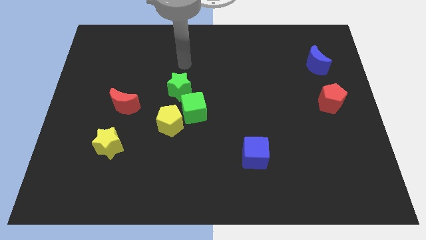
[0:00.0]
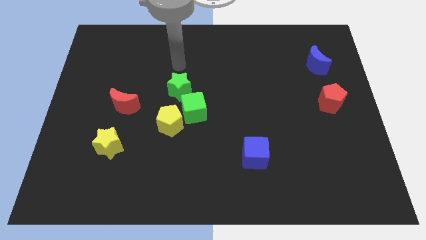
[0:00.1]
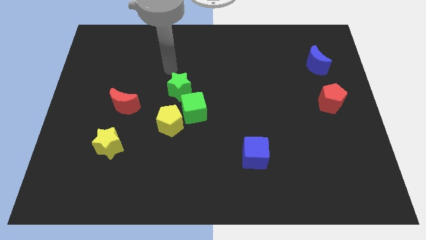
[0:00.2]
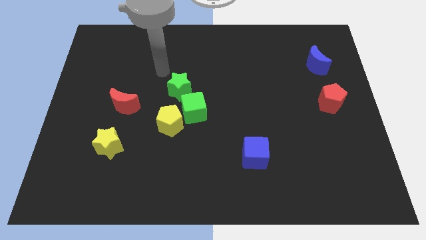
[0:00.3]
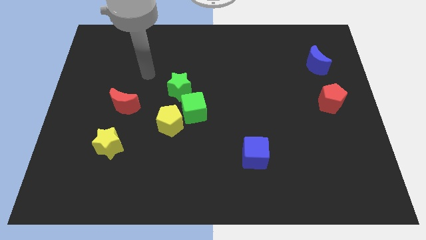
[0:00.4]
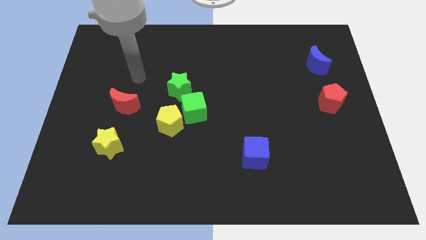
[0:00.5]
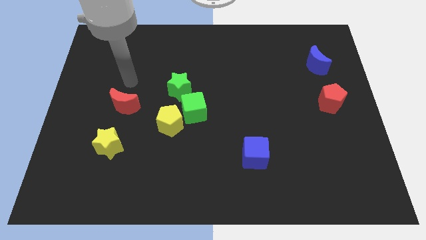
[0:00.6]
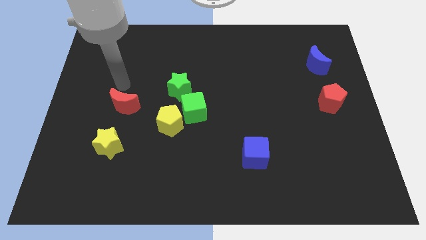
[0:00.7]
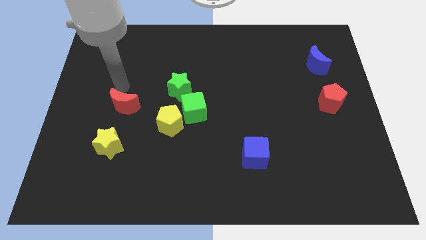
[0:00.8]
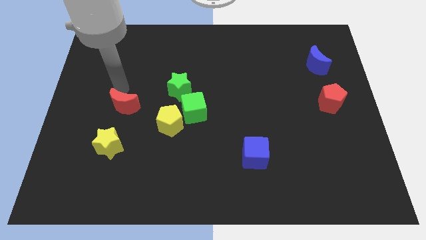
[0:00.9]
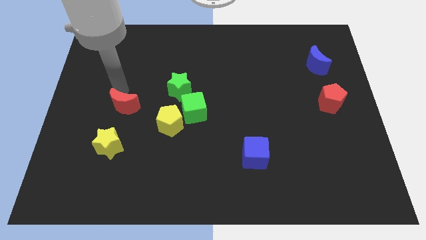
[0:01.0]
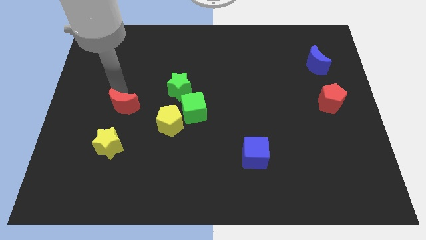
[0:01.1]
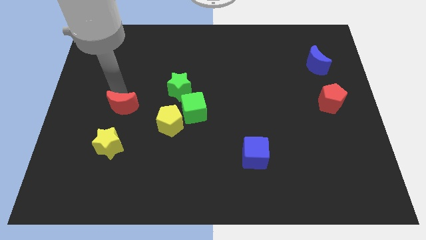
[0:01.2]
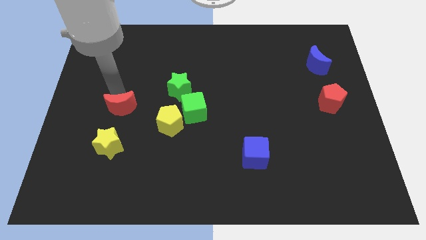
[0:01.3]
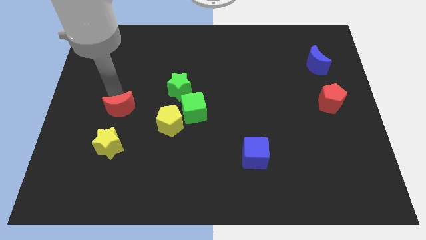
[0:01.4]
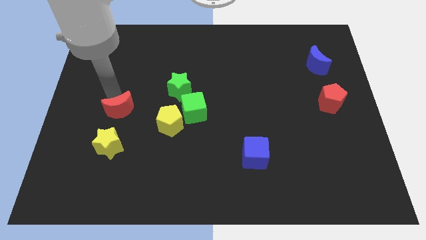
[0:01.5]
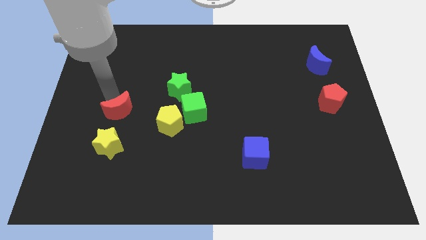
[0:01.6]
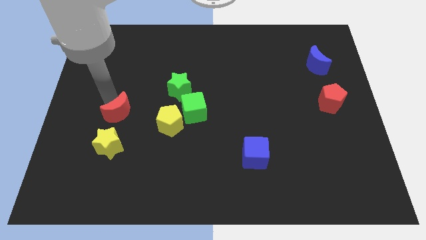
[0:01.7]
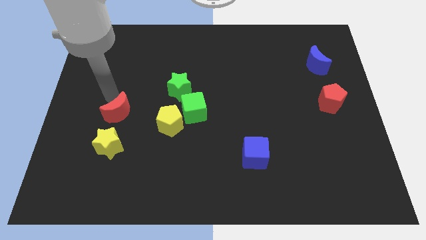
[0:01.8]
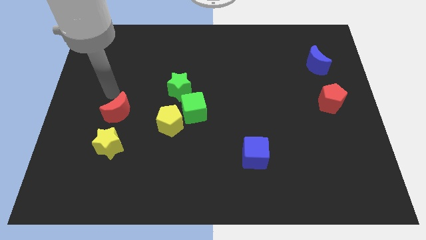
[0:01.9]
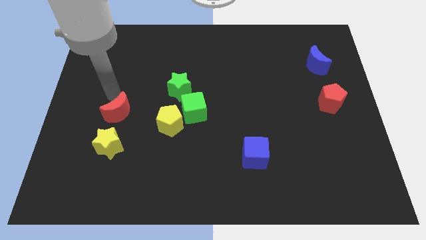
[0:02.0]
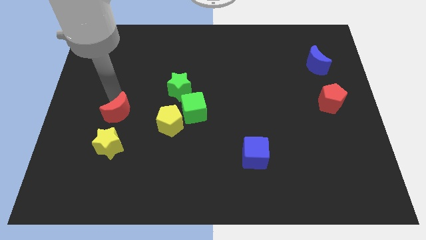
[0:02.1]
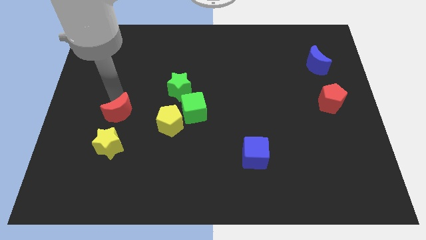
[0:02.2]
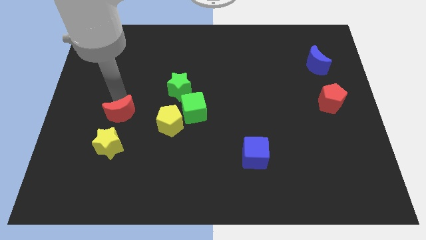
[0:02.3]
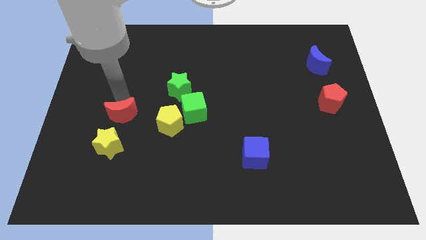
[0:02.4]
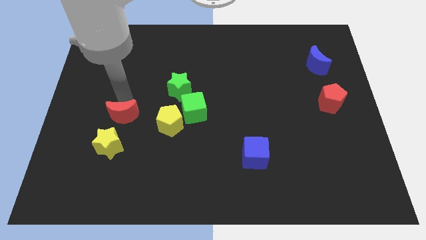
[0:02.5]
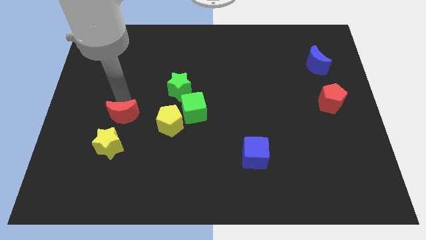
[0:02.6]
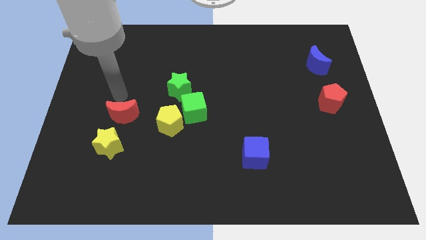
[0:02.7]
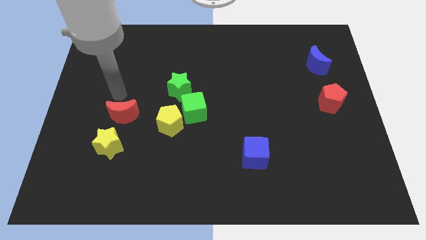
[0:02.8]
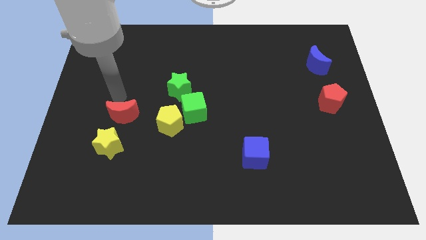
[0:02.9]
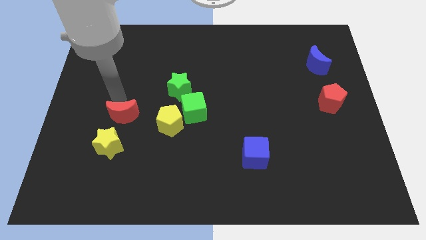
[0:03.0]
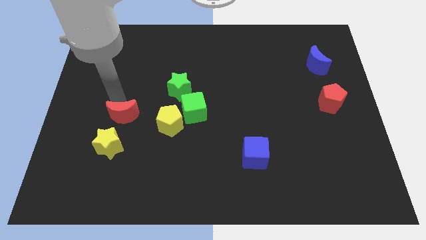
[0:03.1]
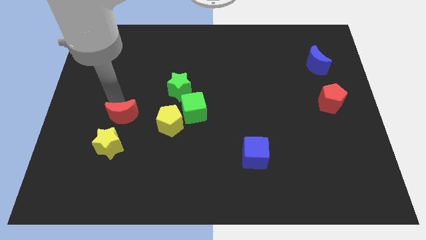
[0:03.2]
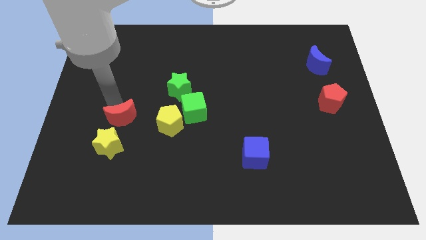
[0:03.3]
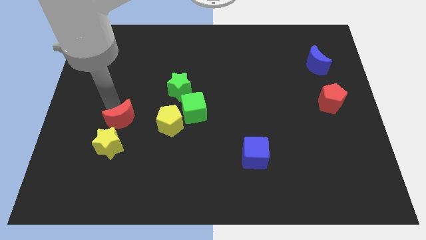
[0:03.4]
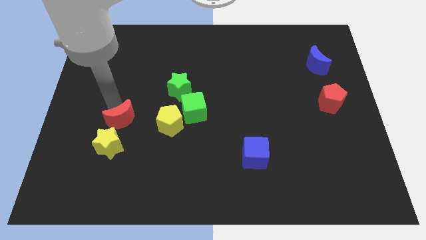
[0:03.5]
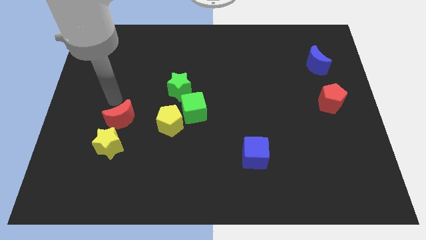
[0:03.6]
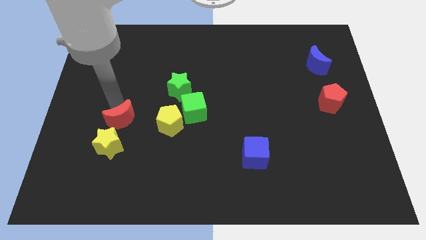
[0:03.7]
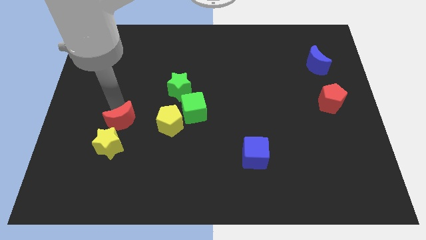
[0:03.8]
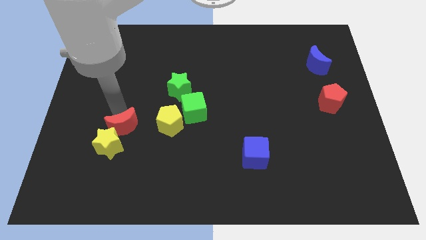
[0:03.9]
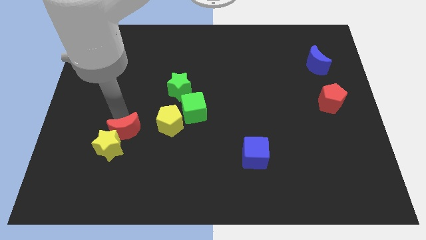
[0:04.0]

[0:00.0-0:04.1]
move the red moon slightly downwards

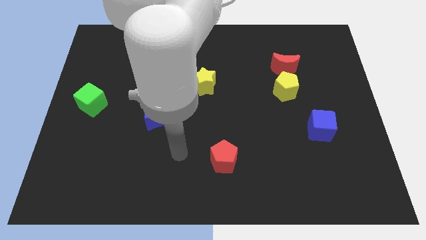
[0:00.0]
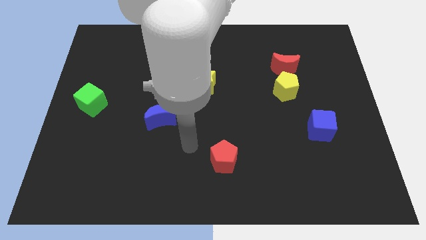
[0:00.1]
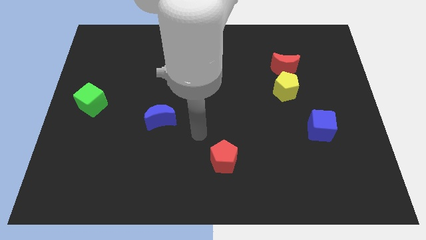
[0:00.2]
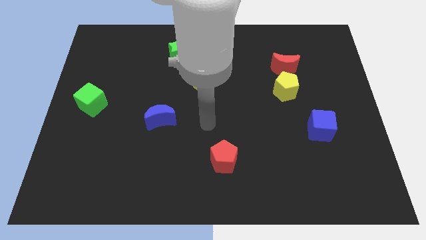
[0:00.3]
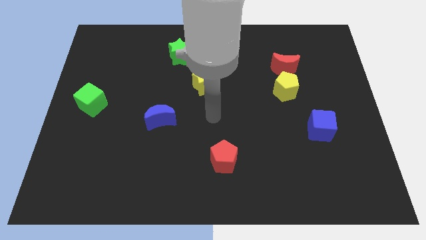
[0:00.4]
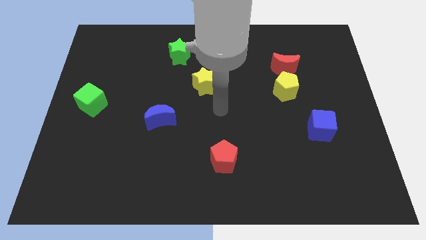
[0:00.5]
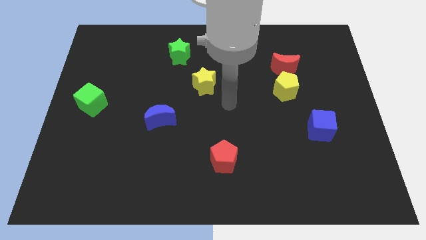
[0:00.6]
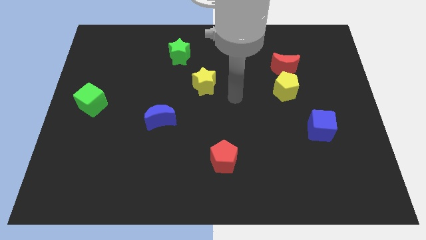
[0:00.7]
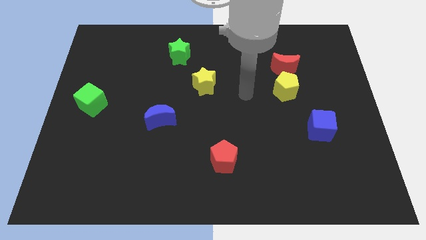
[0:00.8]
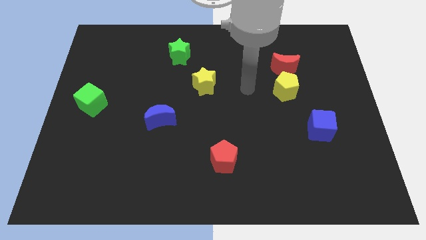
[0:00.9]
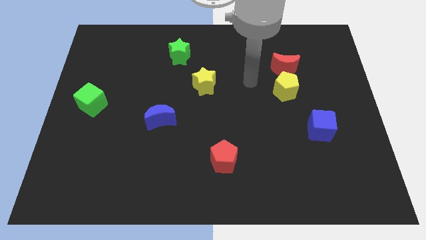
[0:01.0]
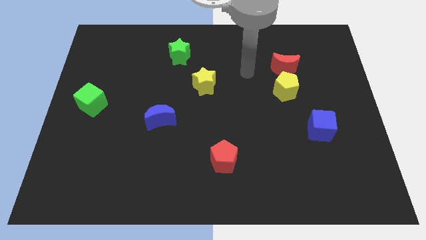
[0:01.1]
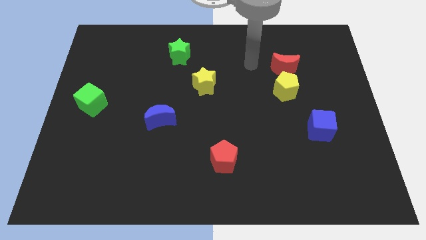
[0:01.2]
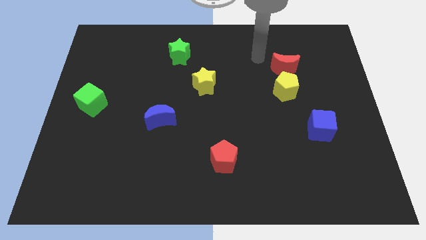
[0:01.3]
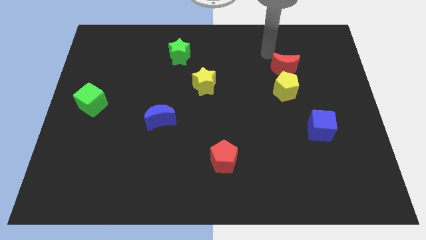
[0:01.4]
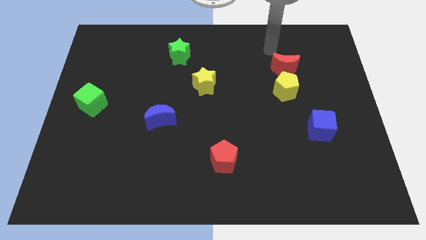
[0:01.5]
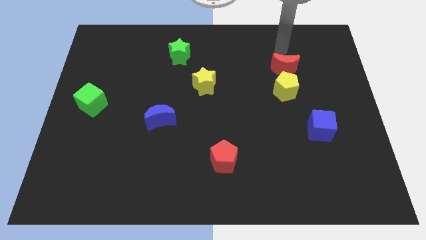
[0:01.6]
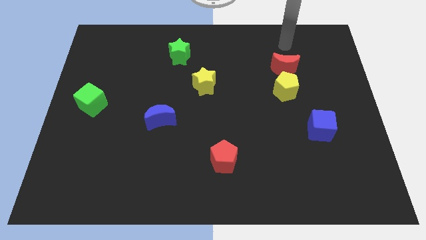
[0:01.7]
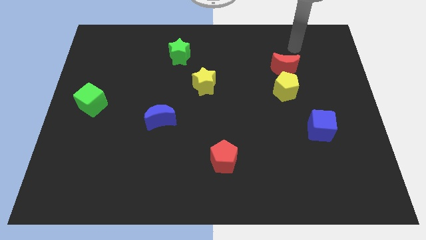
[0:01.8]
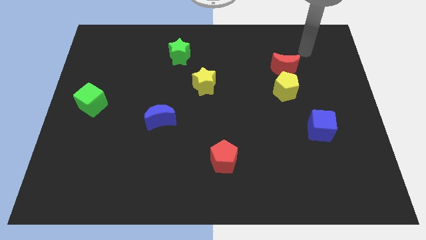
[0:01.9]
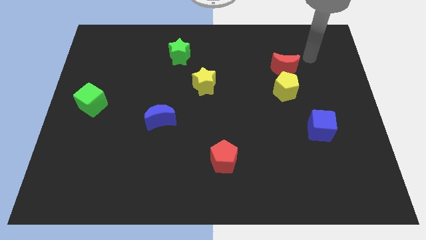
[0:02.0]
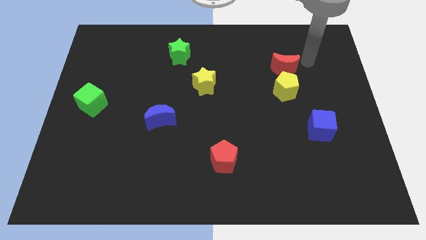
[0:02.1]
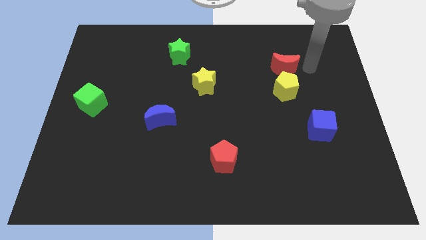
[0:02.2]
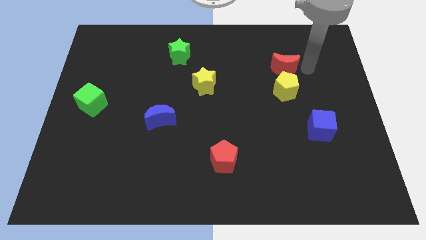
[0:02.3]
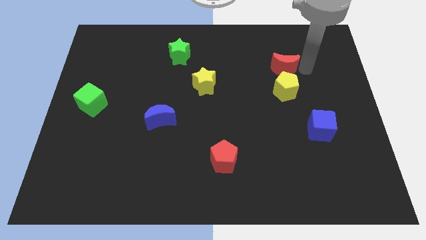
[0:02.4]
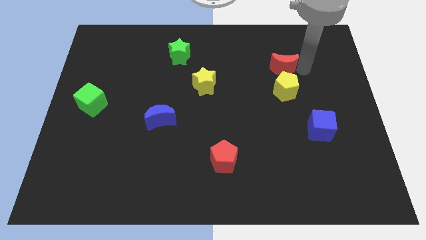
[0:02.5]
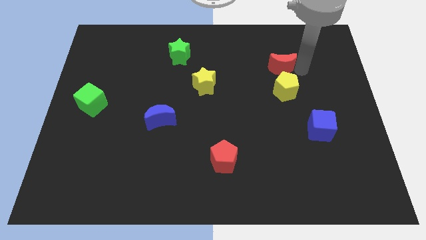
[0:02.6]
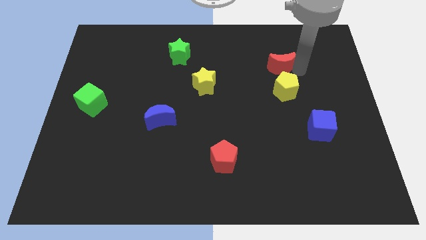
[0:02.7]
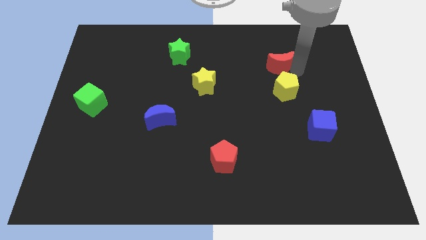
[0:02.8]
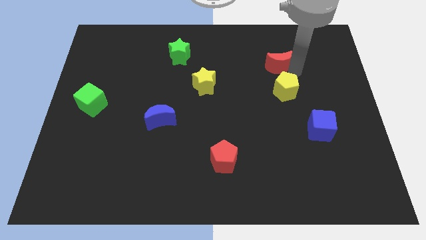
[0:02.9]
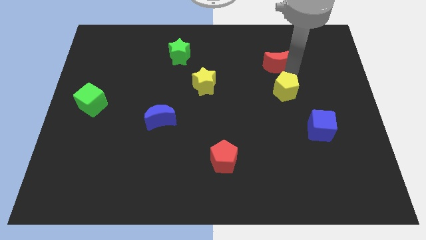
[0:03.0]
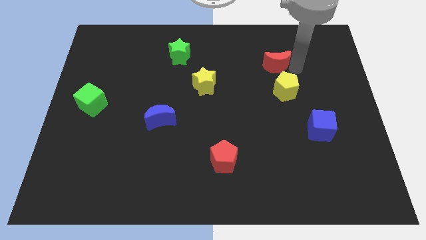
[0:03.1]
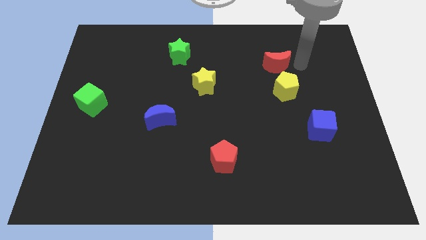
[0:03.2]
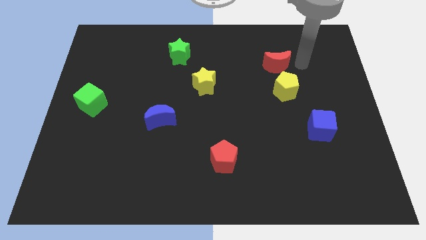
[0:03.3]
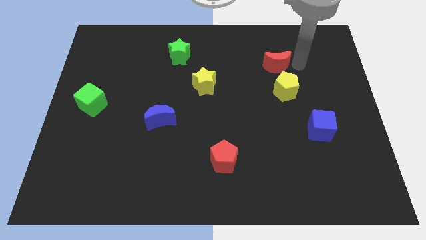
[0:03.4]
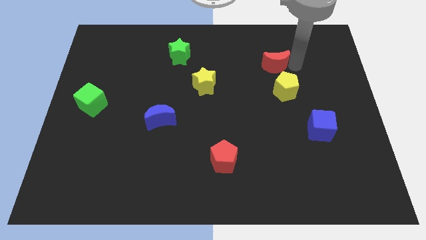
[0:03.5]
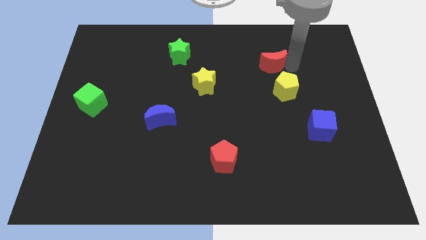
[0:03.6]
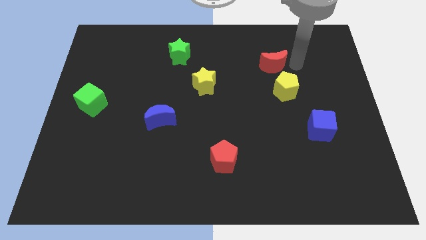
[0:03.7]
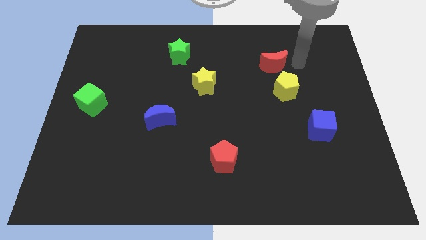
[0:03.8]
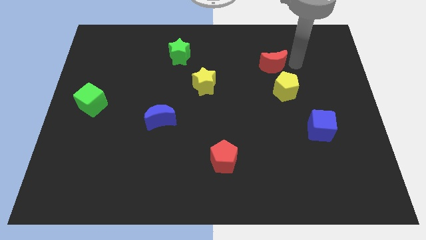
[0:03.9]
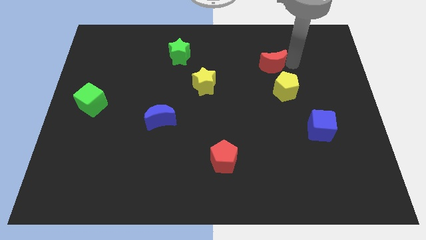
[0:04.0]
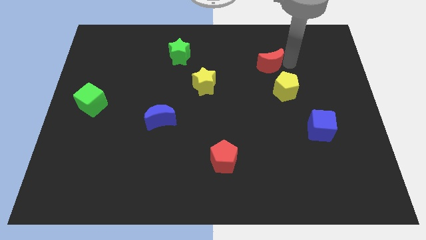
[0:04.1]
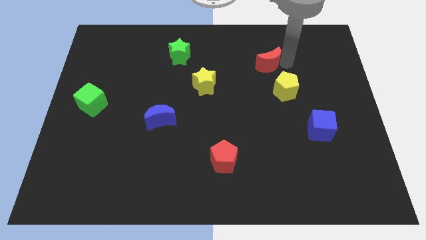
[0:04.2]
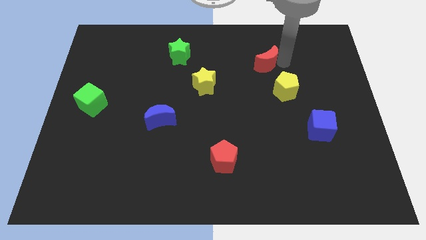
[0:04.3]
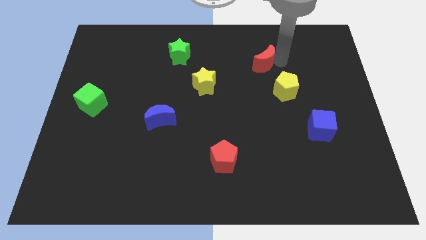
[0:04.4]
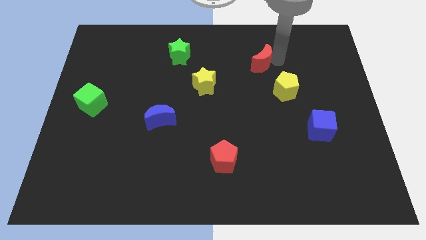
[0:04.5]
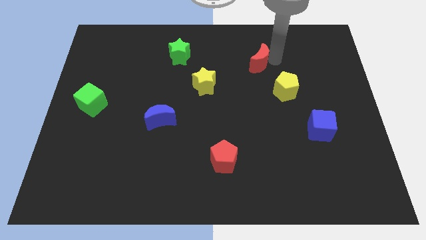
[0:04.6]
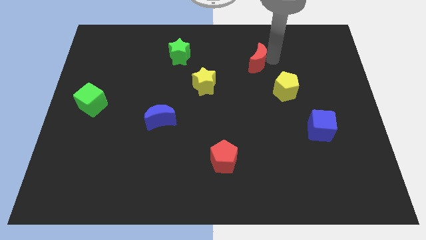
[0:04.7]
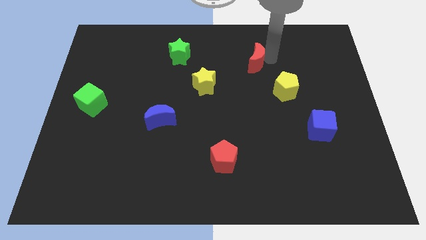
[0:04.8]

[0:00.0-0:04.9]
slightly slide the red moon left
